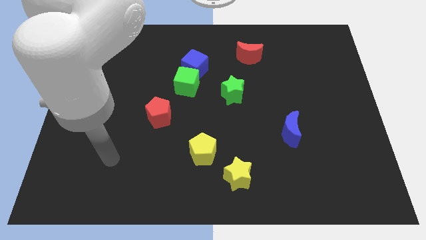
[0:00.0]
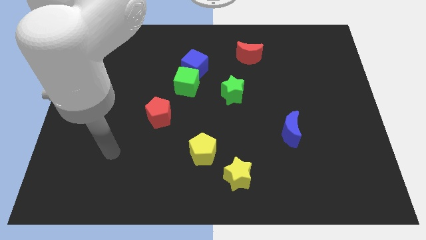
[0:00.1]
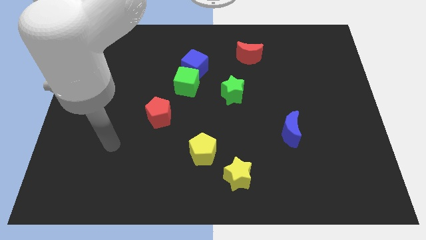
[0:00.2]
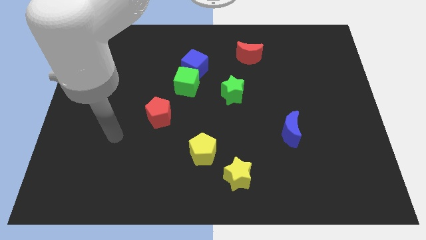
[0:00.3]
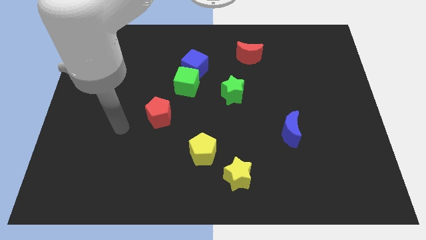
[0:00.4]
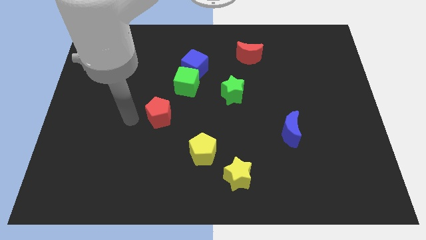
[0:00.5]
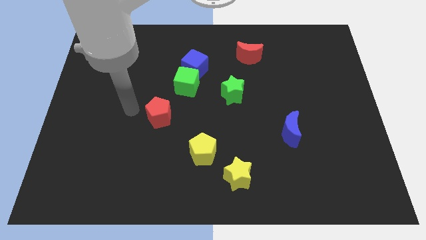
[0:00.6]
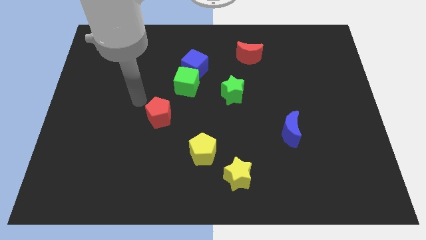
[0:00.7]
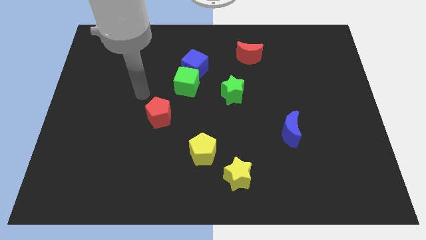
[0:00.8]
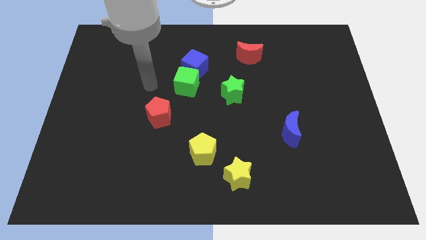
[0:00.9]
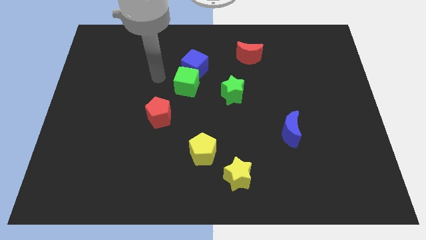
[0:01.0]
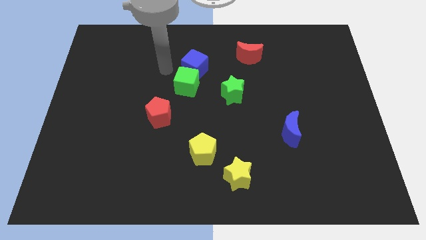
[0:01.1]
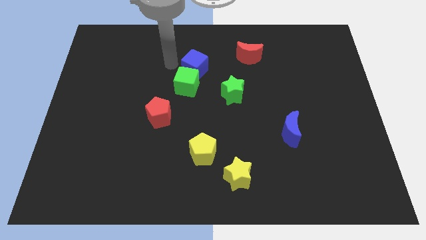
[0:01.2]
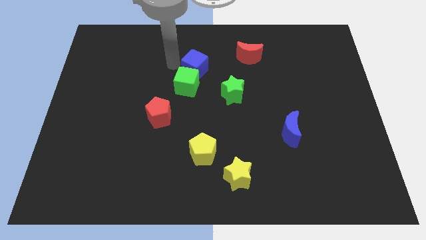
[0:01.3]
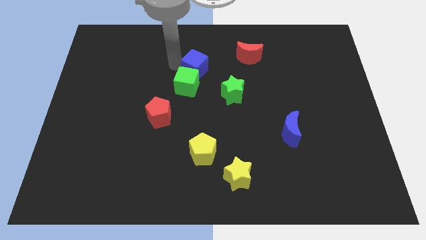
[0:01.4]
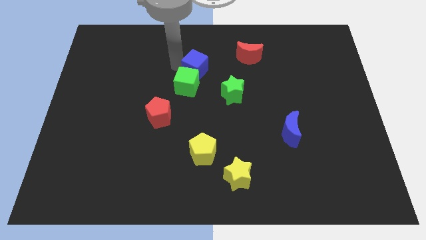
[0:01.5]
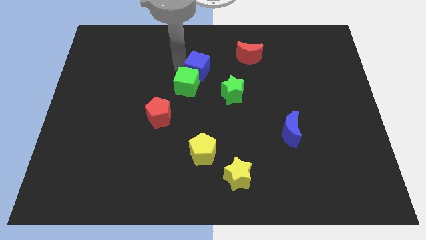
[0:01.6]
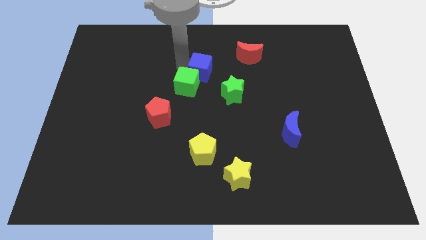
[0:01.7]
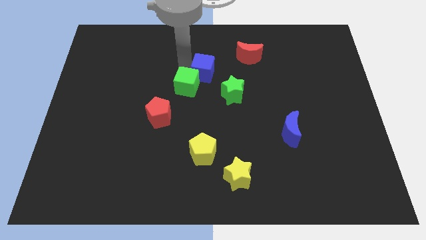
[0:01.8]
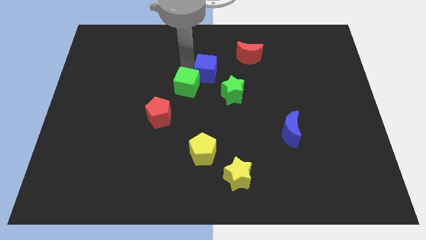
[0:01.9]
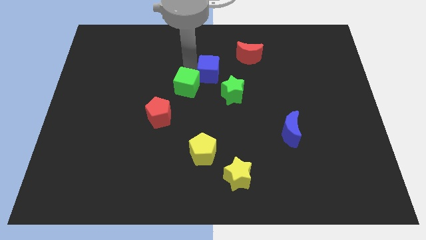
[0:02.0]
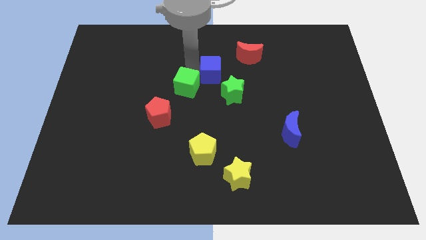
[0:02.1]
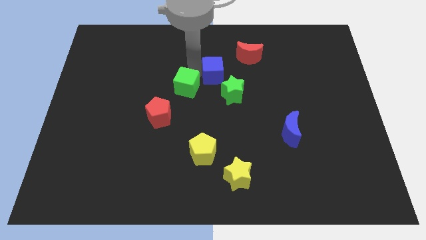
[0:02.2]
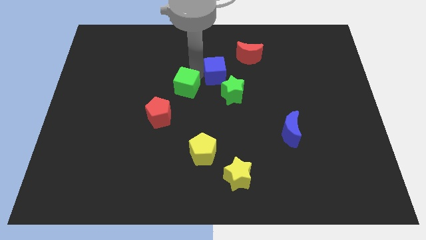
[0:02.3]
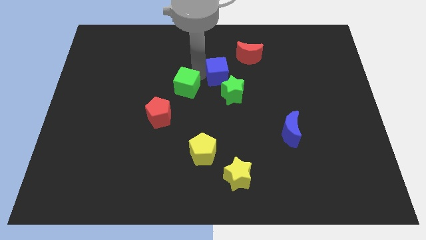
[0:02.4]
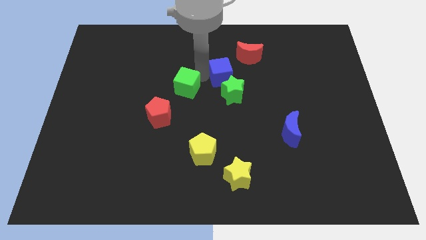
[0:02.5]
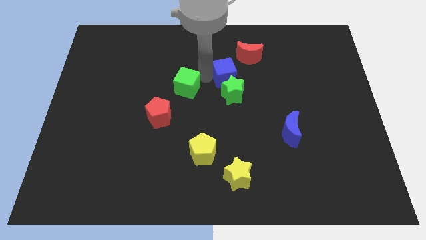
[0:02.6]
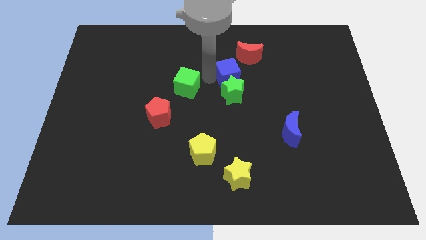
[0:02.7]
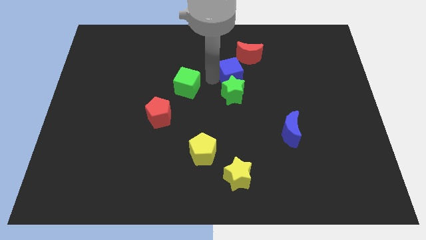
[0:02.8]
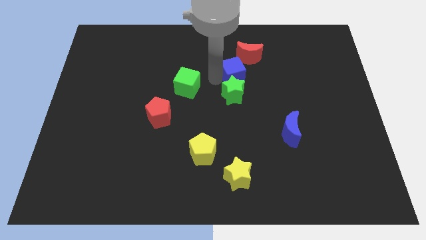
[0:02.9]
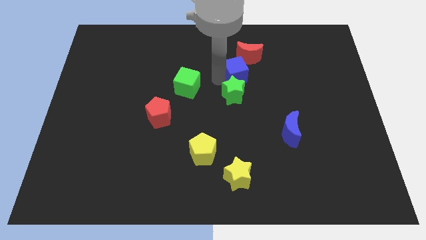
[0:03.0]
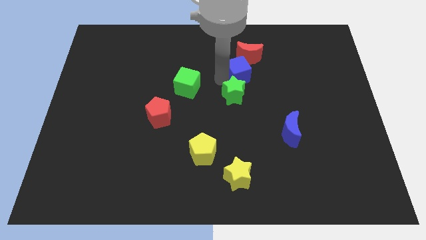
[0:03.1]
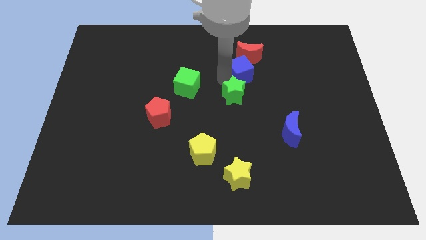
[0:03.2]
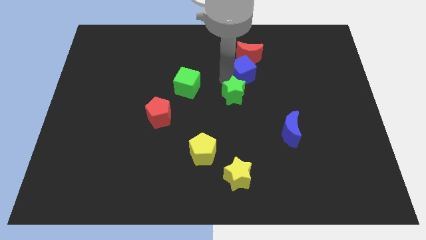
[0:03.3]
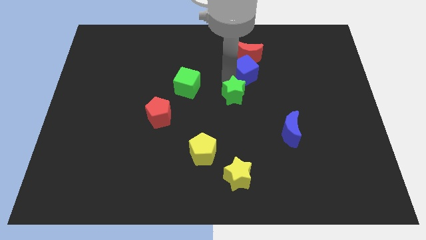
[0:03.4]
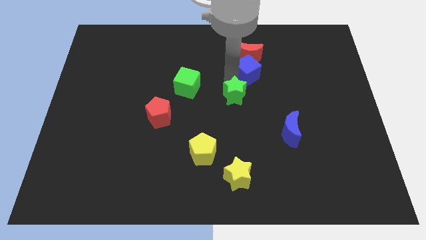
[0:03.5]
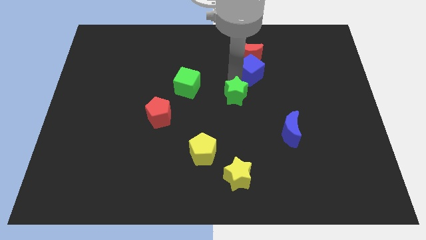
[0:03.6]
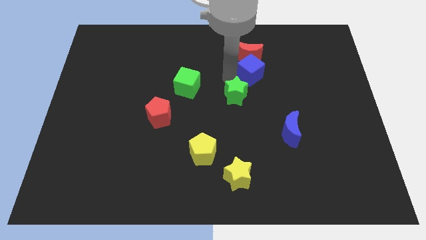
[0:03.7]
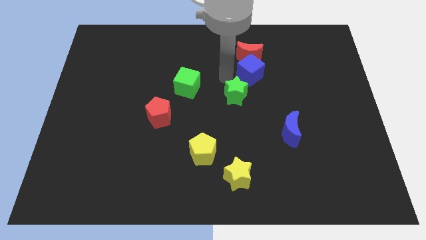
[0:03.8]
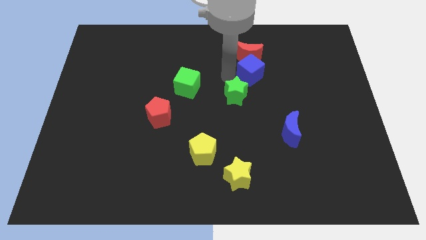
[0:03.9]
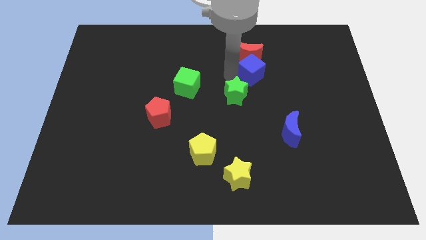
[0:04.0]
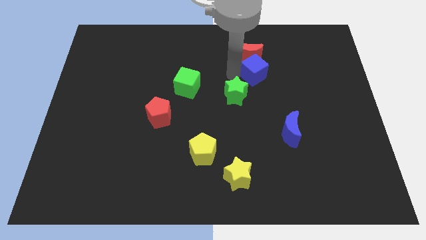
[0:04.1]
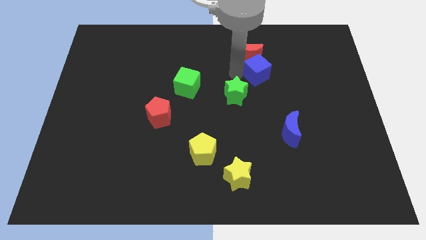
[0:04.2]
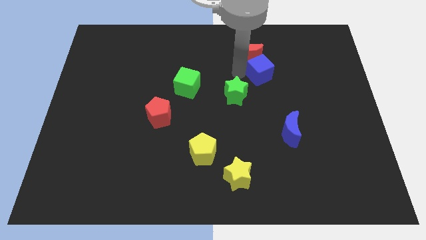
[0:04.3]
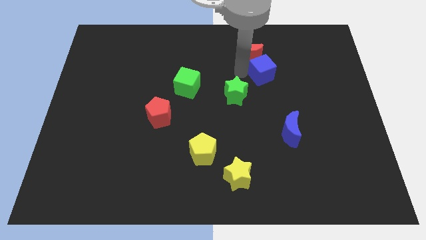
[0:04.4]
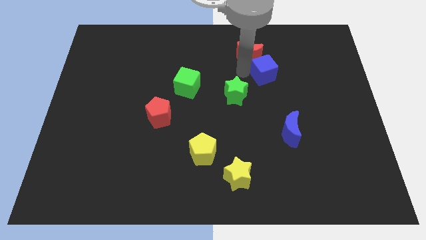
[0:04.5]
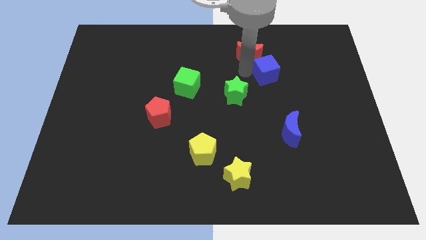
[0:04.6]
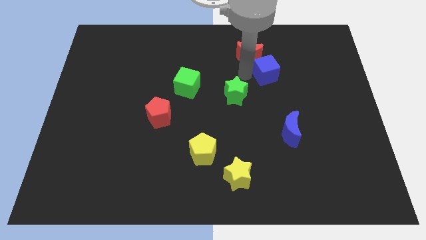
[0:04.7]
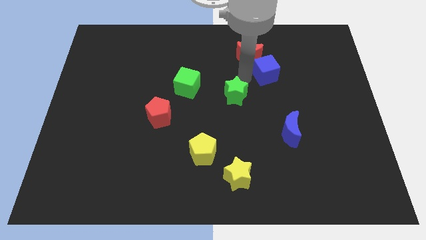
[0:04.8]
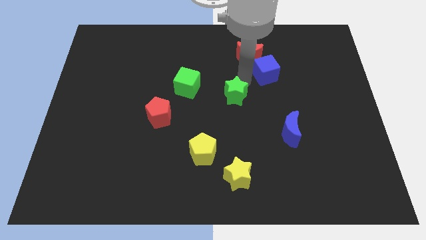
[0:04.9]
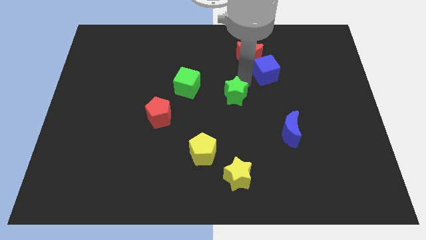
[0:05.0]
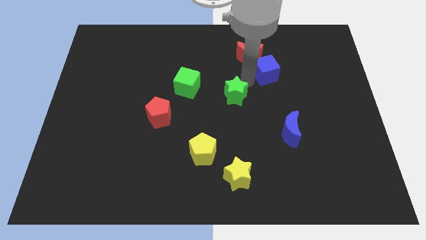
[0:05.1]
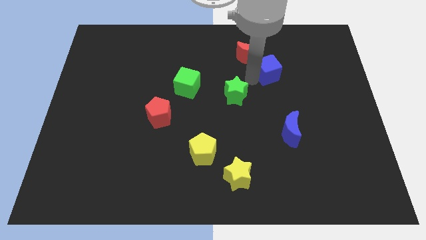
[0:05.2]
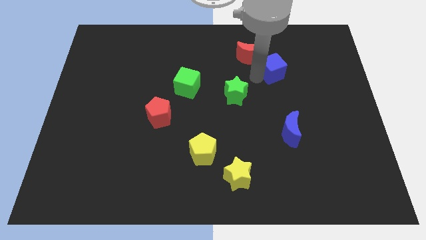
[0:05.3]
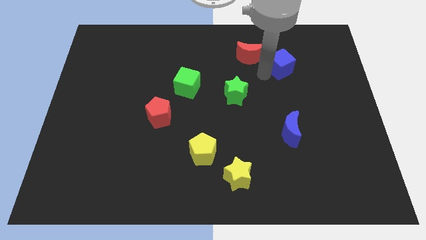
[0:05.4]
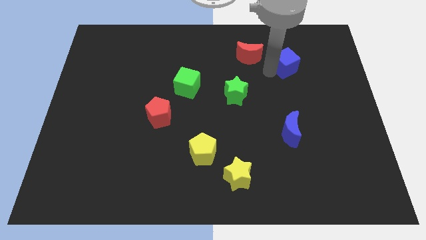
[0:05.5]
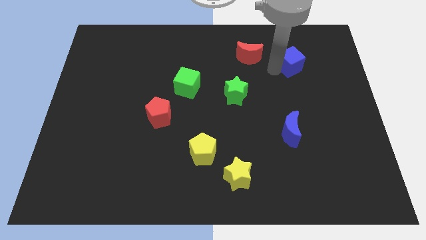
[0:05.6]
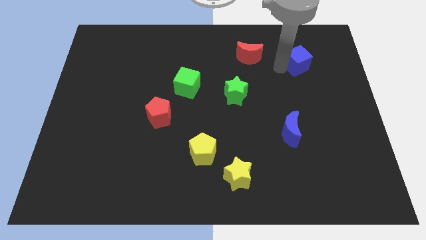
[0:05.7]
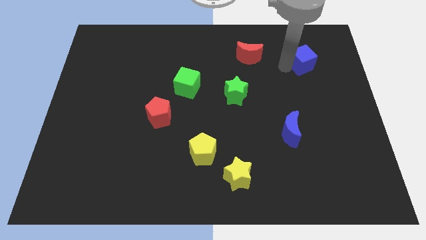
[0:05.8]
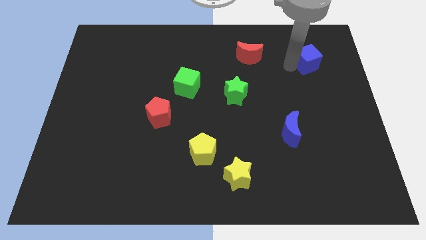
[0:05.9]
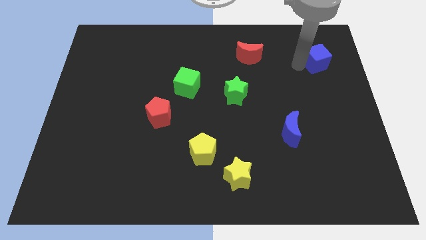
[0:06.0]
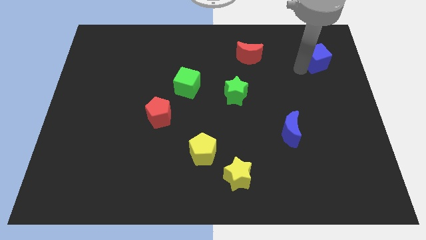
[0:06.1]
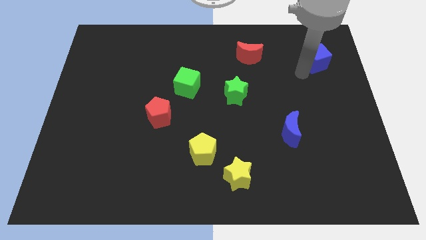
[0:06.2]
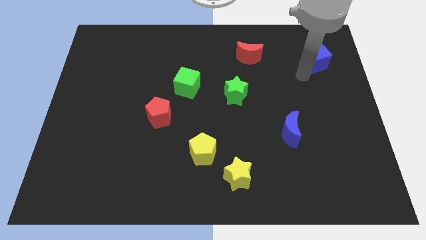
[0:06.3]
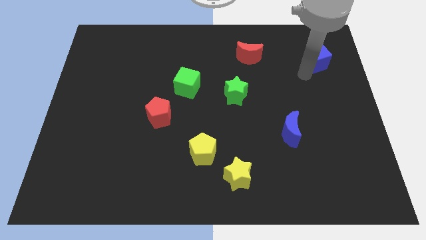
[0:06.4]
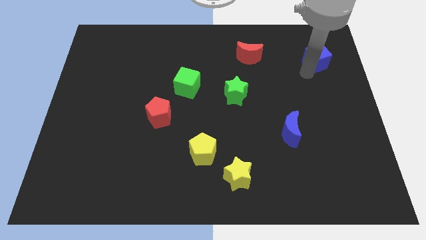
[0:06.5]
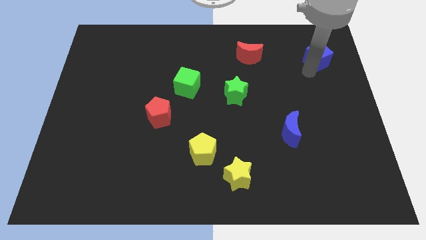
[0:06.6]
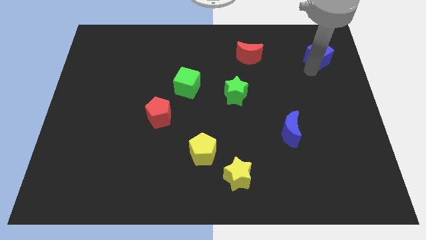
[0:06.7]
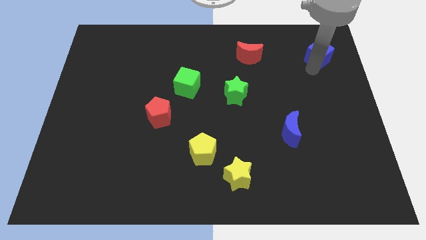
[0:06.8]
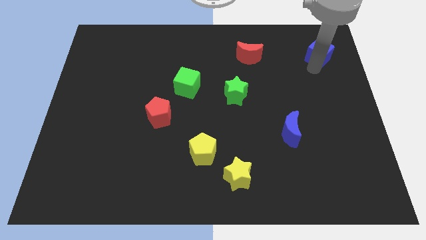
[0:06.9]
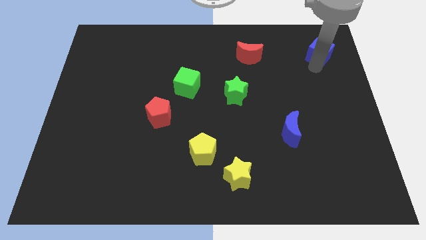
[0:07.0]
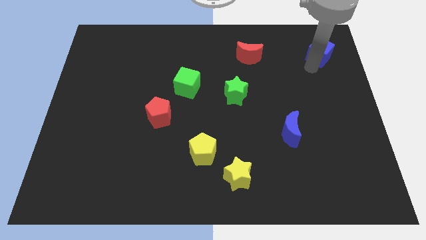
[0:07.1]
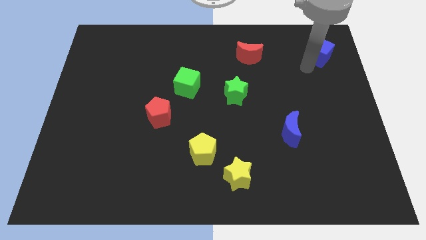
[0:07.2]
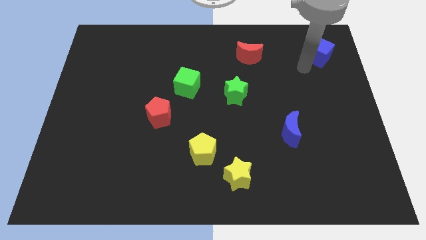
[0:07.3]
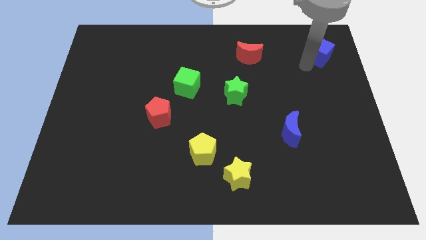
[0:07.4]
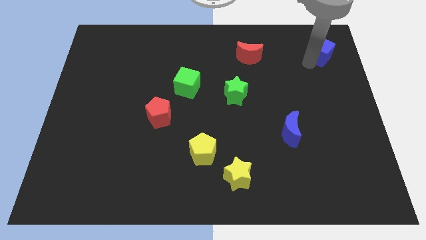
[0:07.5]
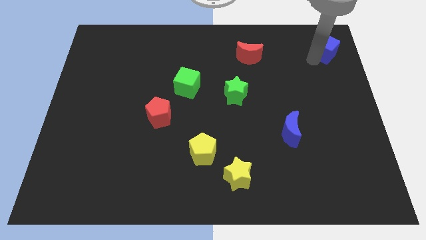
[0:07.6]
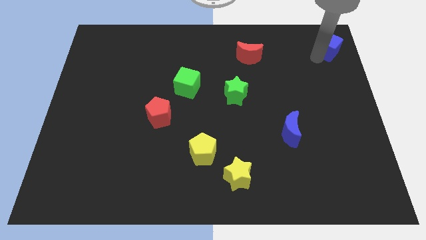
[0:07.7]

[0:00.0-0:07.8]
slide the blue cube to the upper right corner
